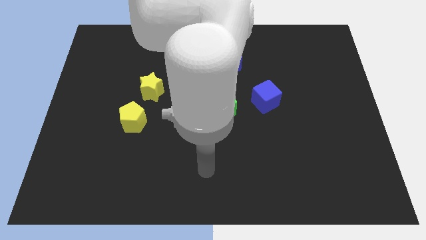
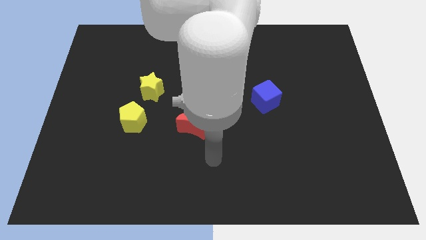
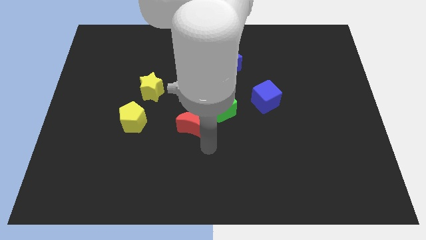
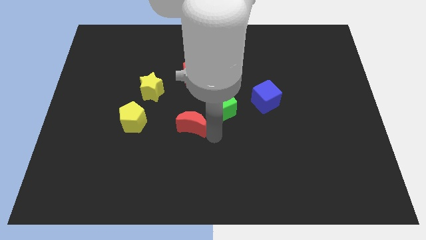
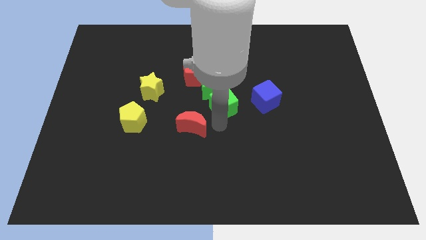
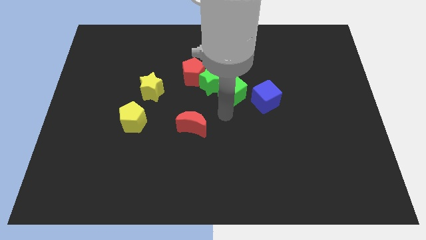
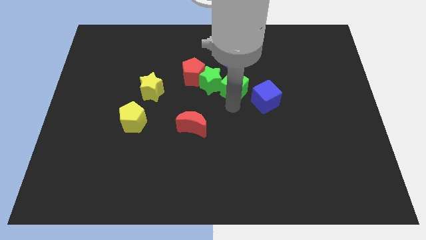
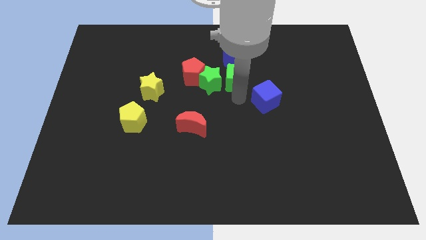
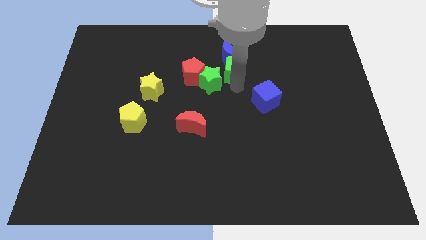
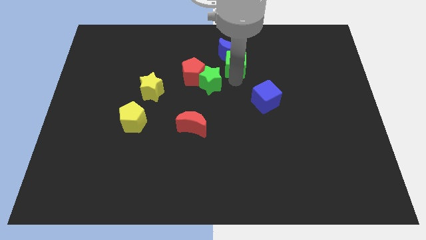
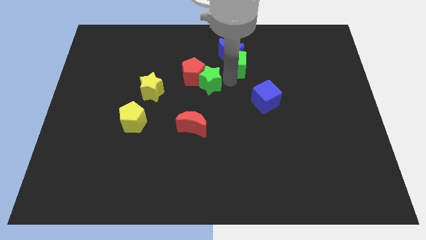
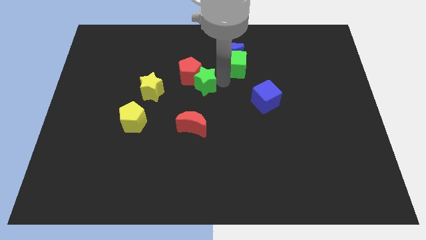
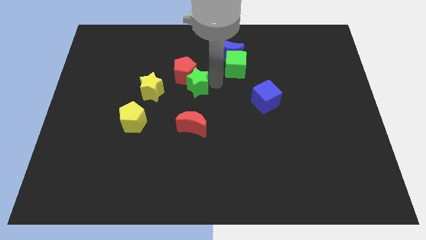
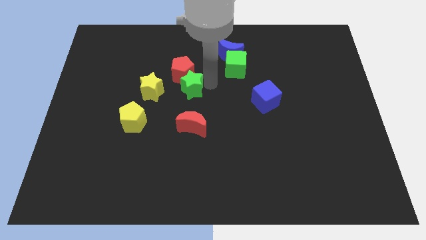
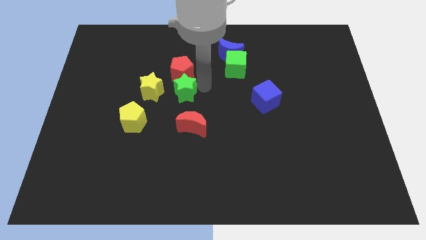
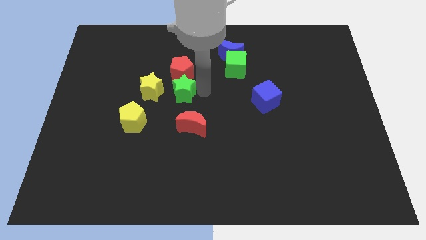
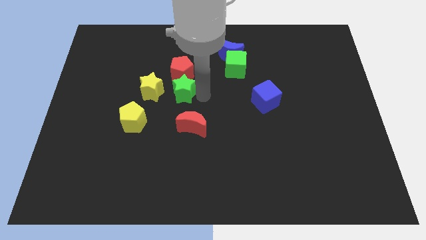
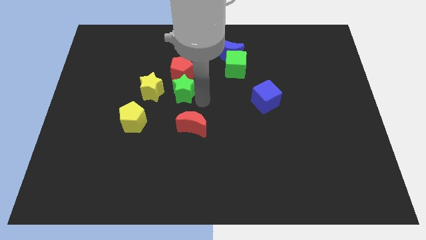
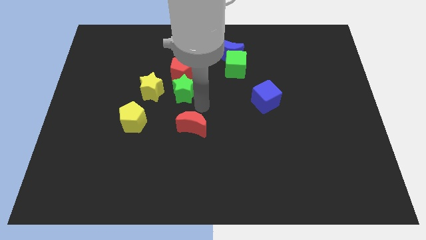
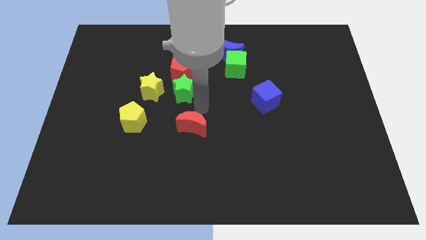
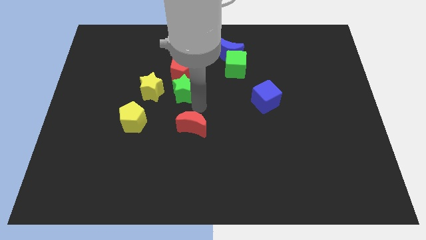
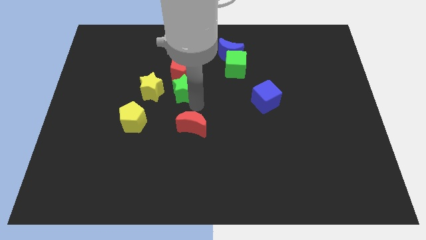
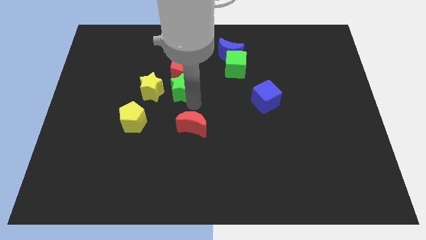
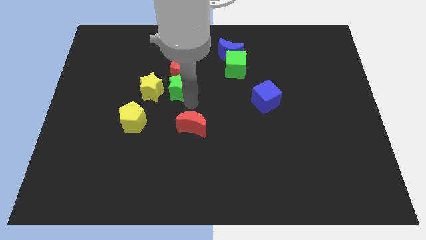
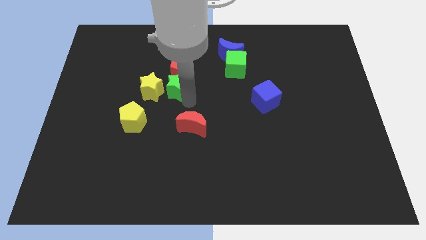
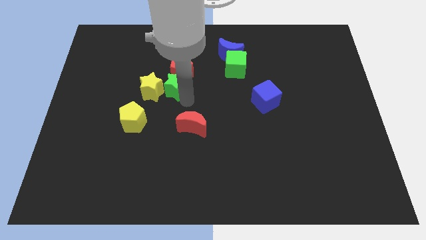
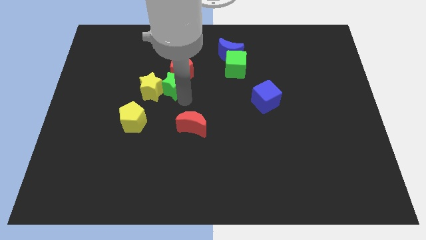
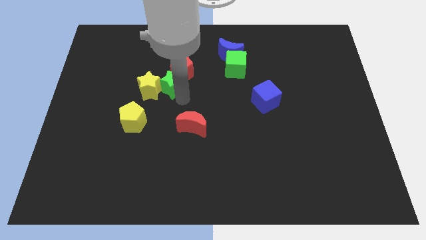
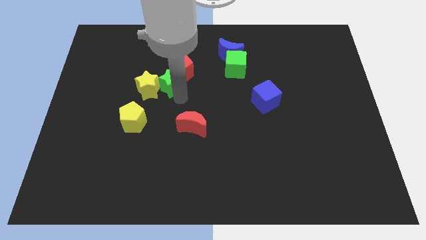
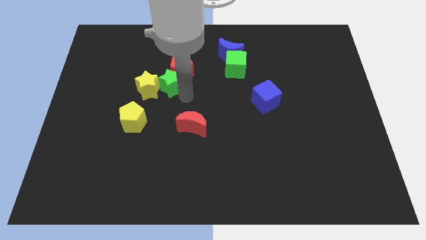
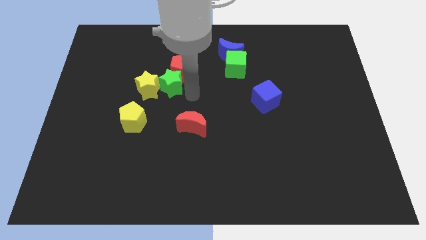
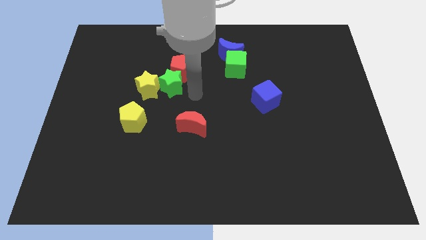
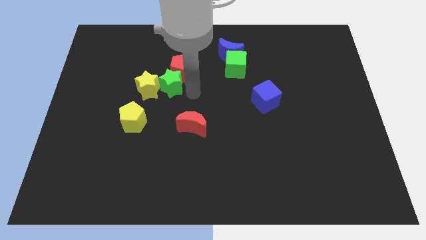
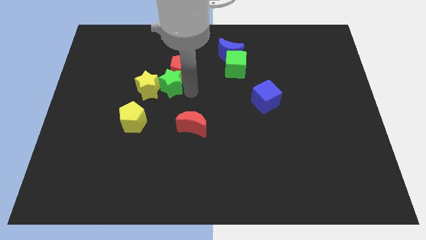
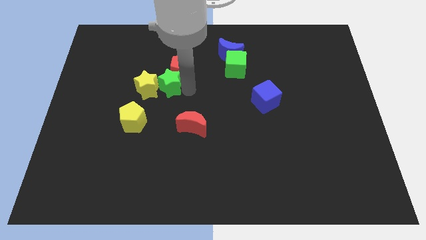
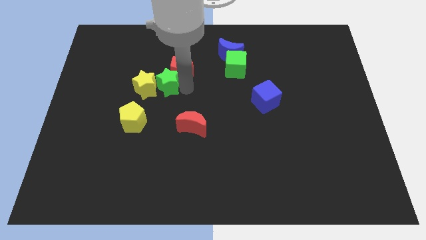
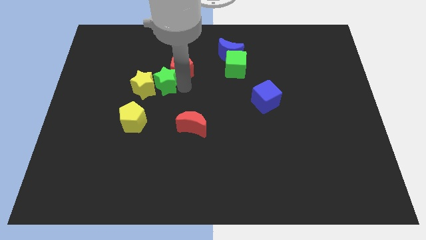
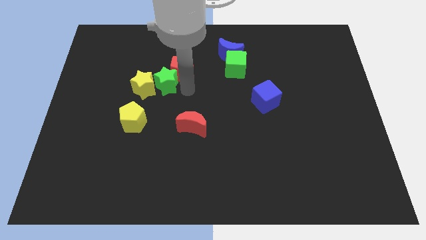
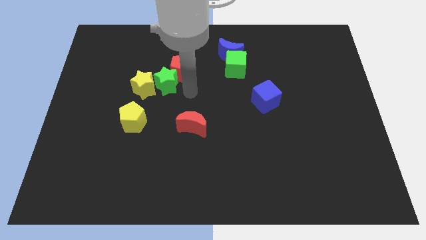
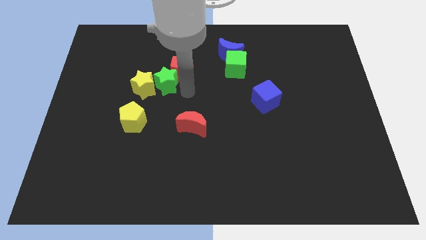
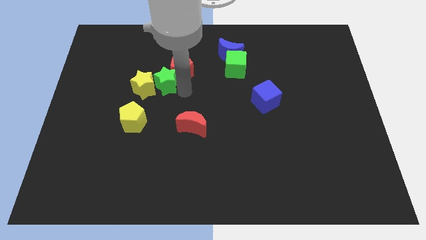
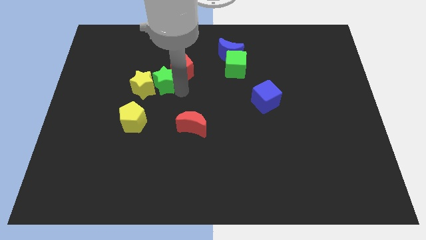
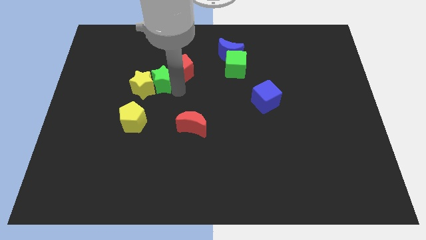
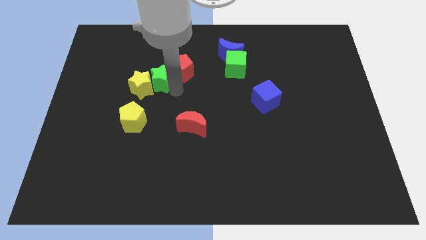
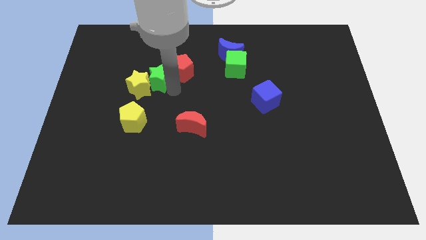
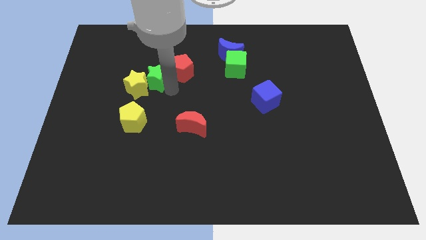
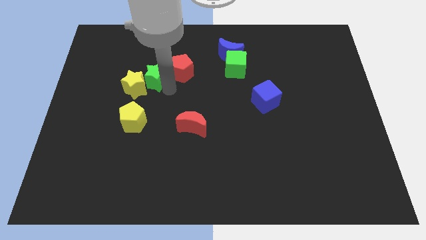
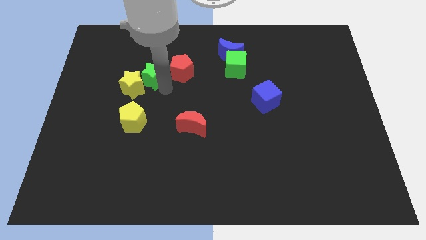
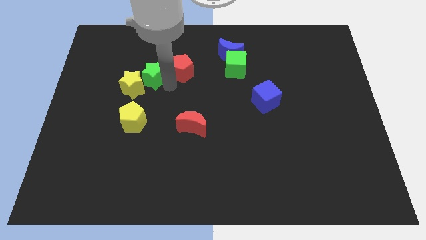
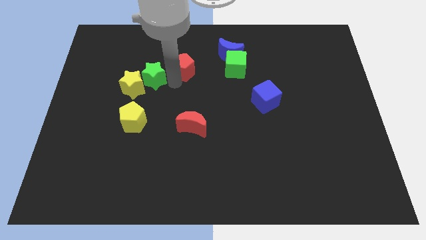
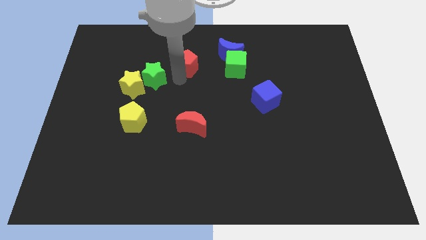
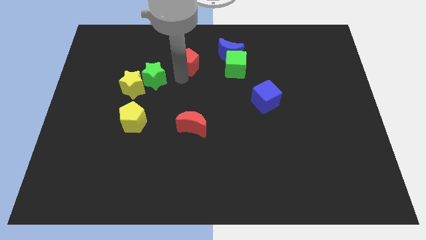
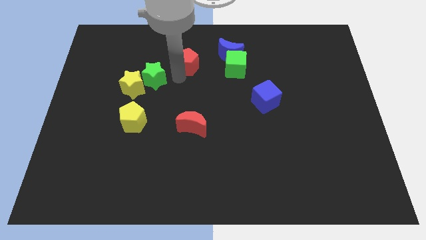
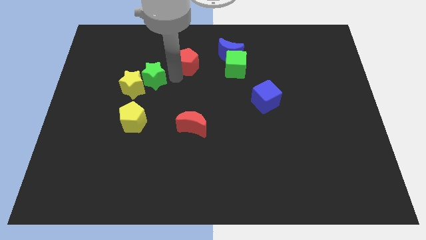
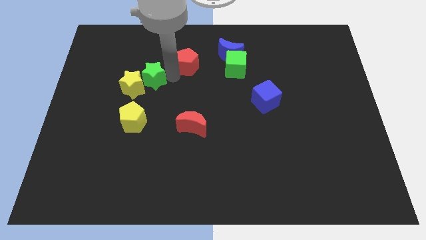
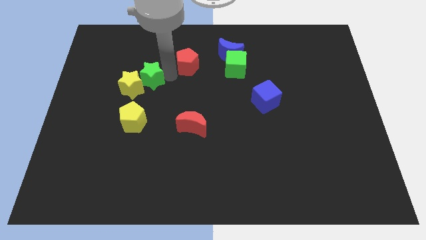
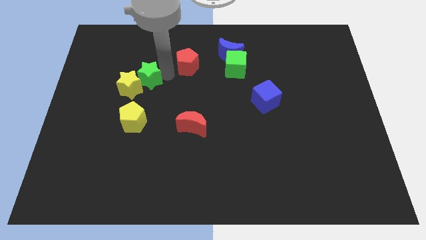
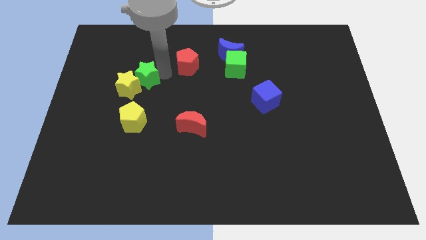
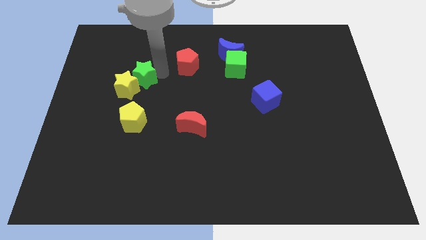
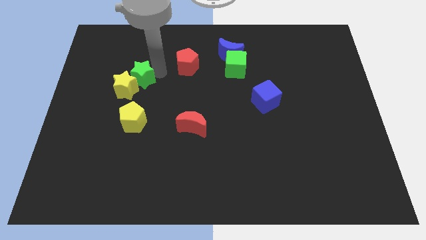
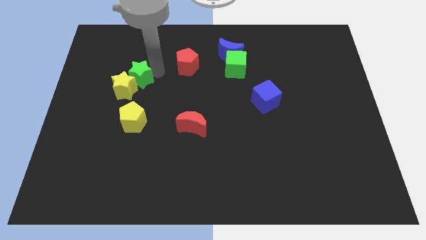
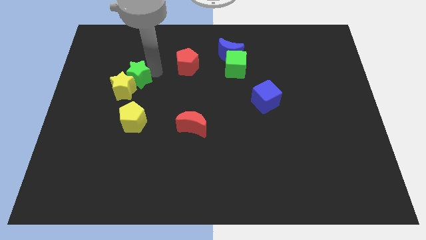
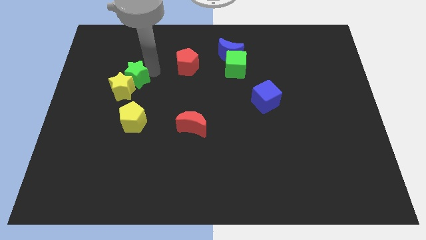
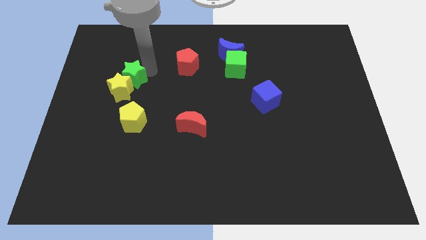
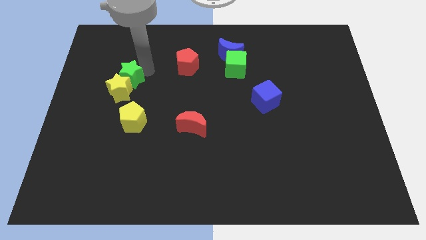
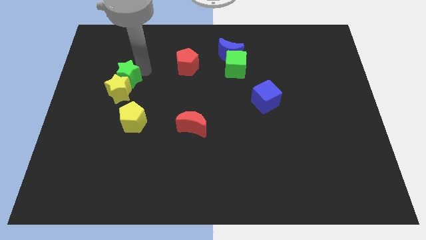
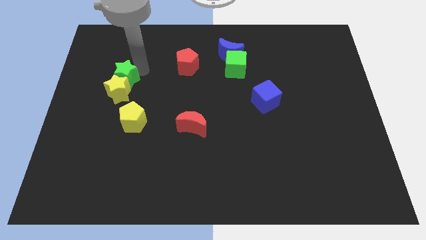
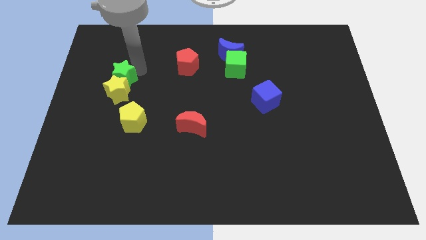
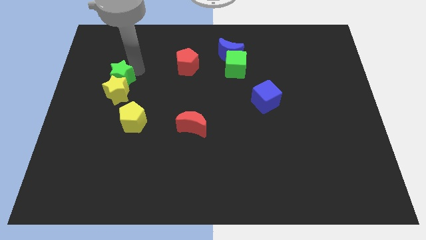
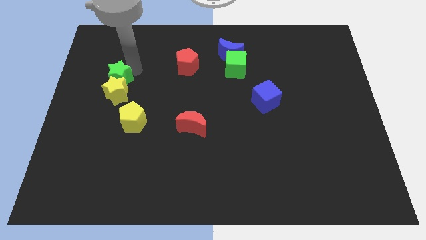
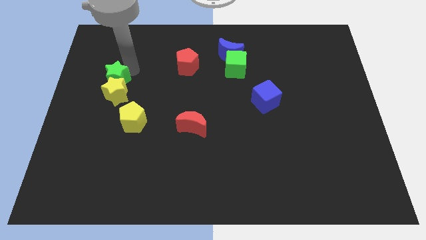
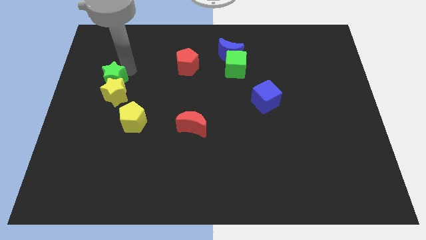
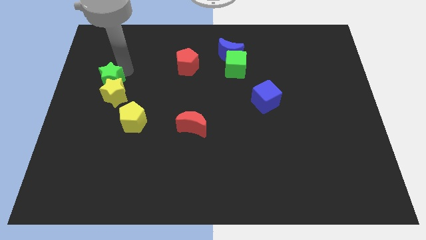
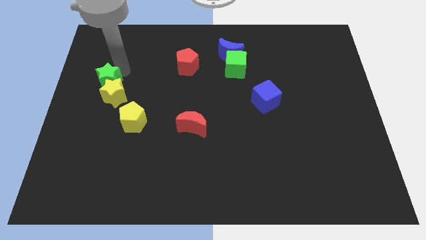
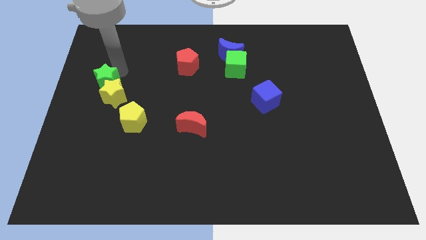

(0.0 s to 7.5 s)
move the green star to the left side
